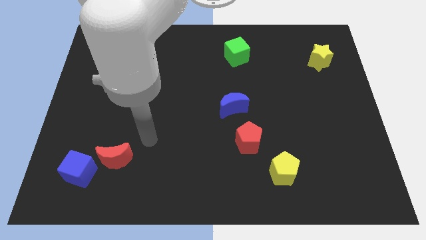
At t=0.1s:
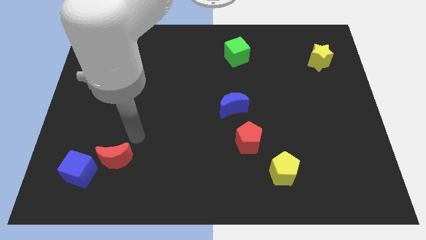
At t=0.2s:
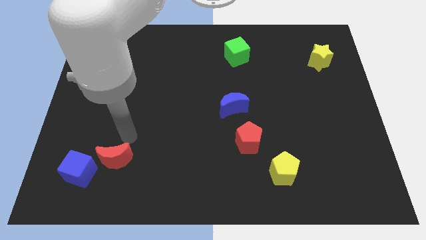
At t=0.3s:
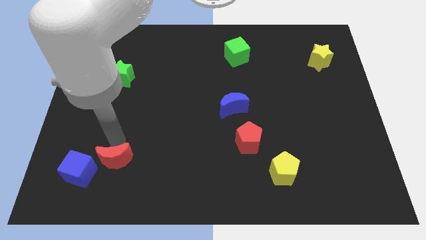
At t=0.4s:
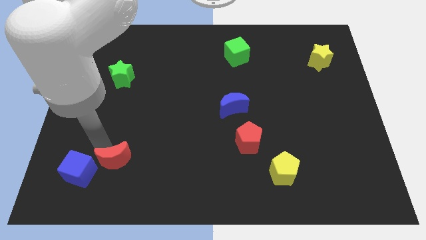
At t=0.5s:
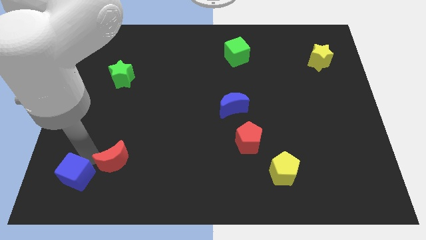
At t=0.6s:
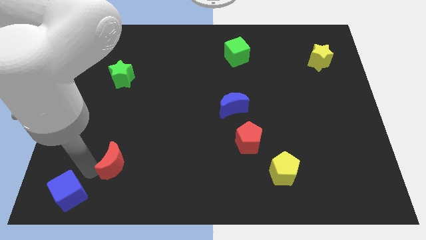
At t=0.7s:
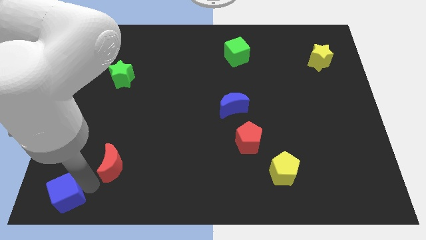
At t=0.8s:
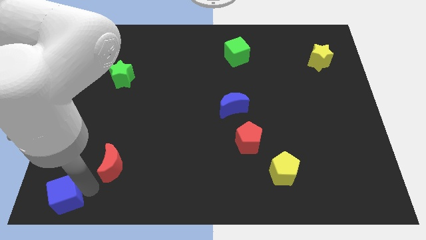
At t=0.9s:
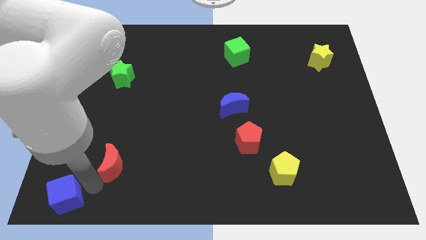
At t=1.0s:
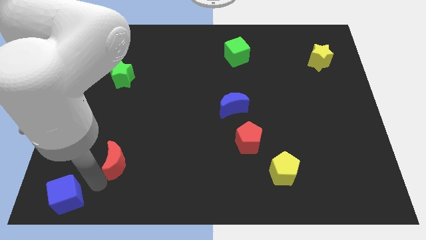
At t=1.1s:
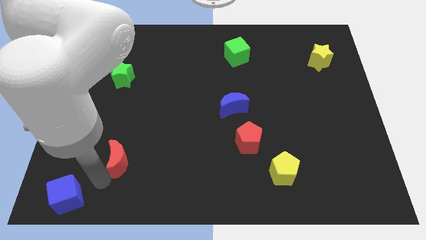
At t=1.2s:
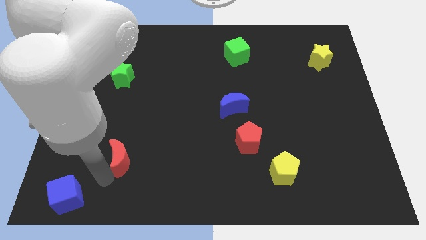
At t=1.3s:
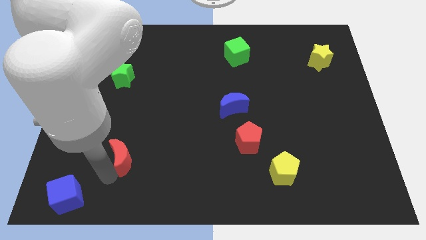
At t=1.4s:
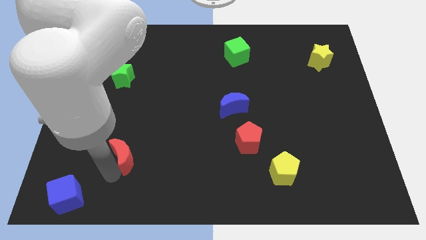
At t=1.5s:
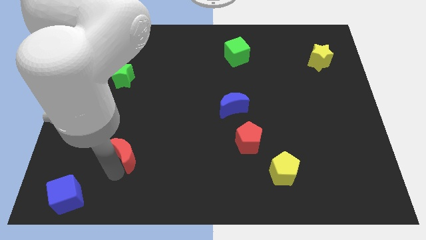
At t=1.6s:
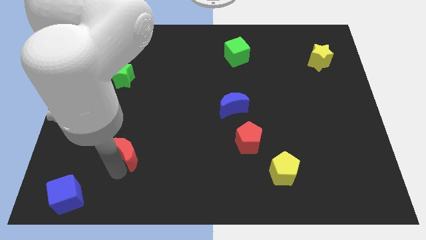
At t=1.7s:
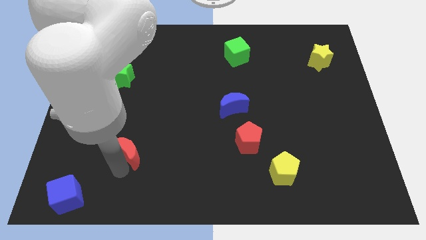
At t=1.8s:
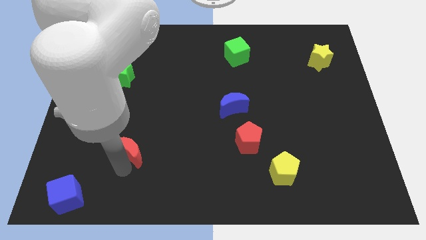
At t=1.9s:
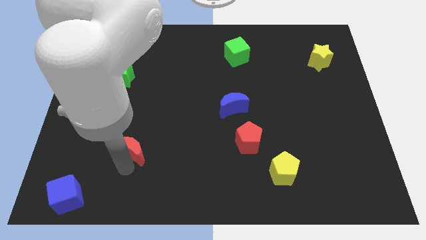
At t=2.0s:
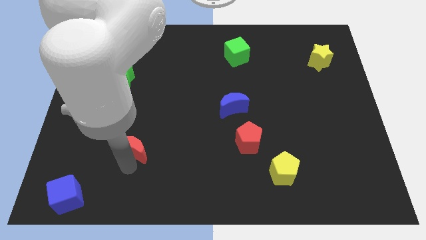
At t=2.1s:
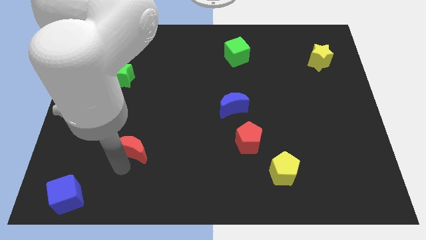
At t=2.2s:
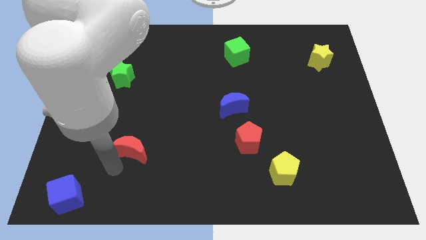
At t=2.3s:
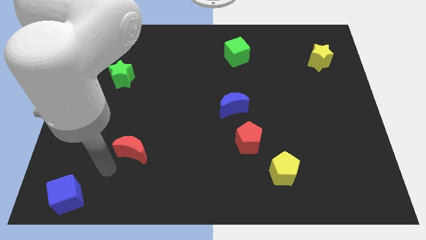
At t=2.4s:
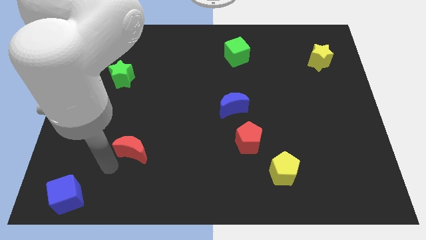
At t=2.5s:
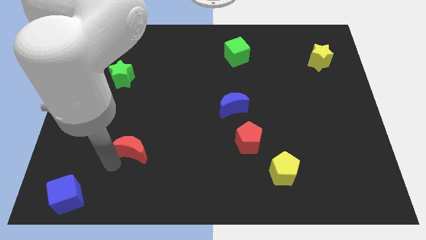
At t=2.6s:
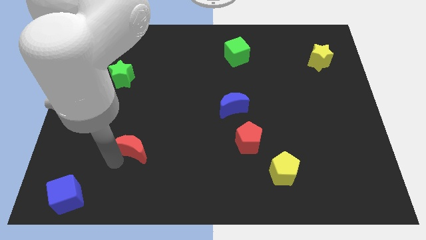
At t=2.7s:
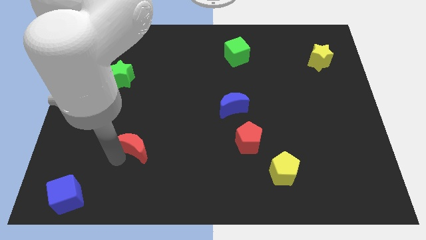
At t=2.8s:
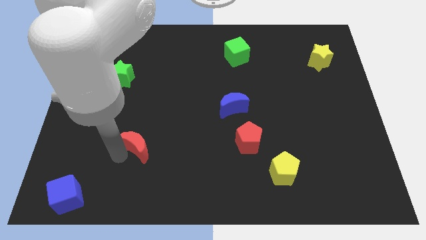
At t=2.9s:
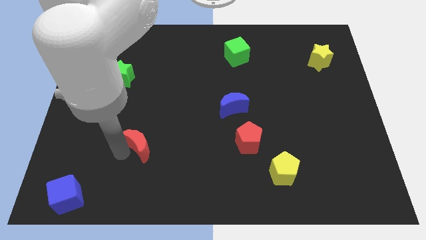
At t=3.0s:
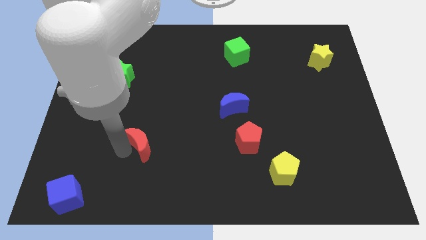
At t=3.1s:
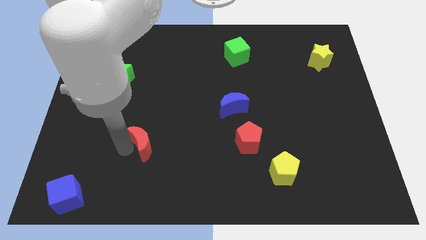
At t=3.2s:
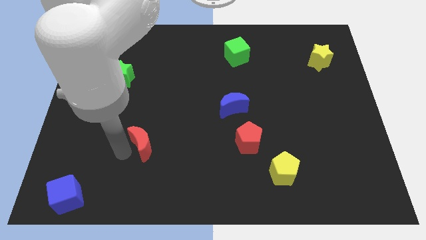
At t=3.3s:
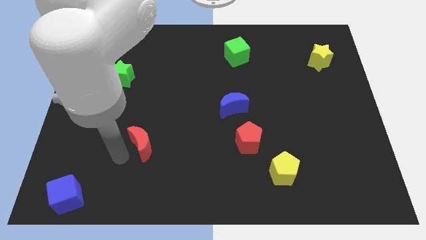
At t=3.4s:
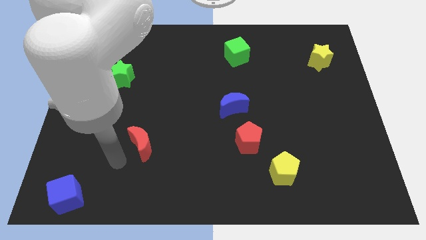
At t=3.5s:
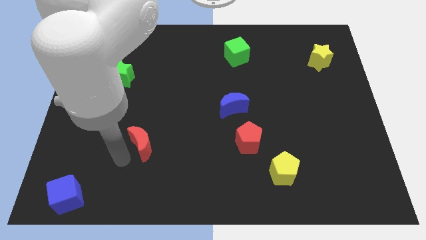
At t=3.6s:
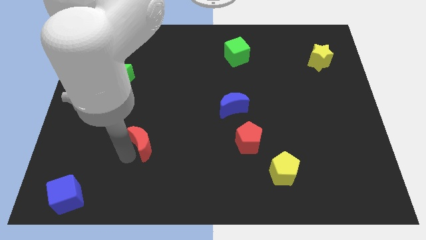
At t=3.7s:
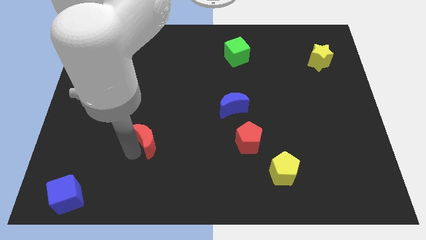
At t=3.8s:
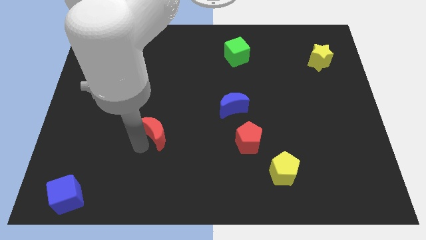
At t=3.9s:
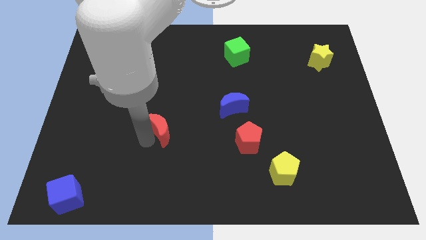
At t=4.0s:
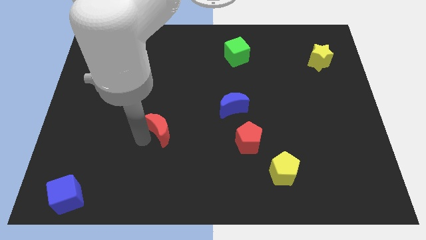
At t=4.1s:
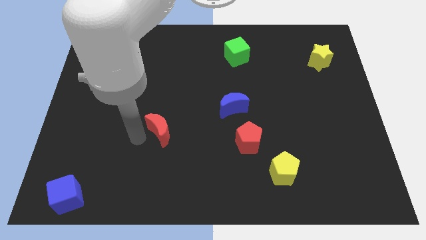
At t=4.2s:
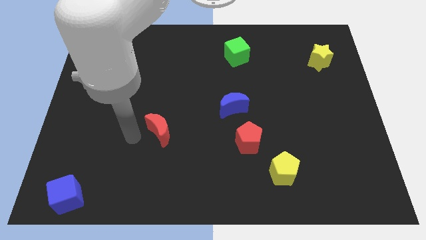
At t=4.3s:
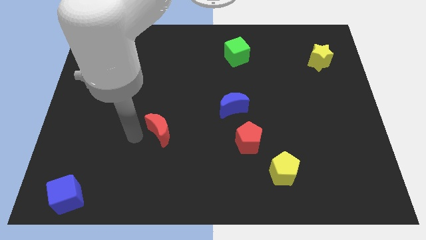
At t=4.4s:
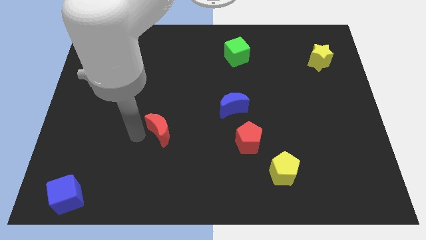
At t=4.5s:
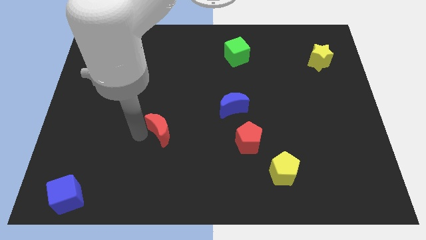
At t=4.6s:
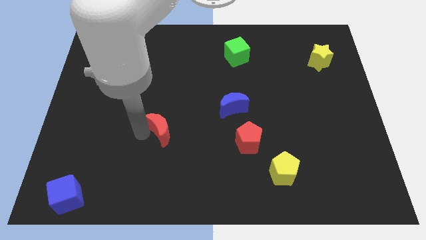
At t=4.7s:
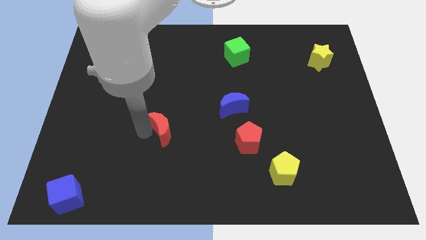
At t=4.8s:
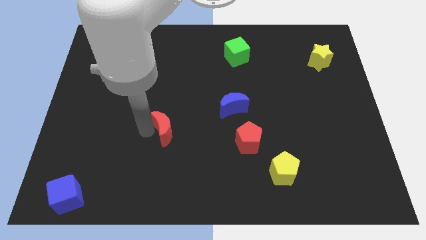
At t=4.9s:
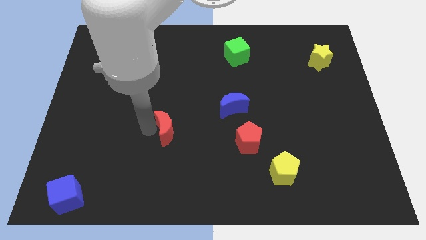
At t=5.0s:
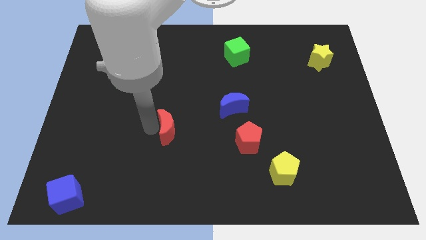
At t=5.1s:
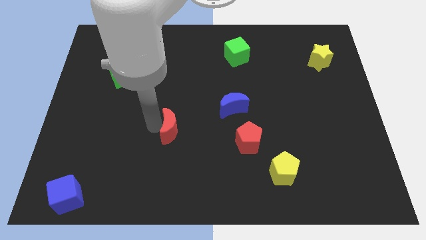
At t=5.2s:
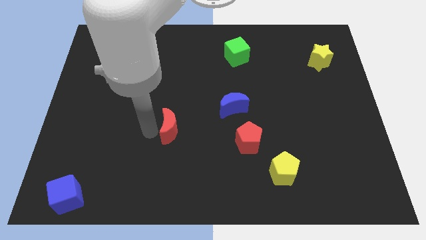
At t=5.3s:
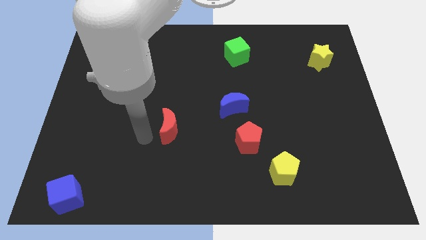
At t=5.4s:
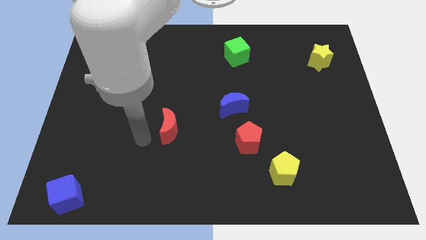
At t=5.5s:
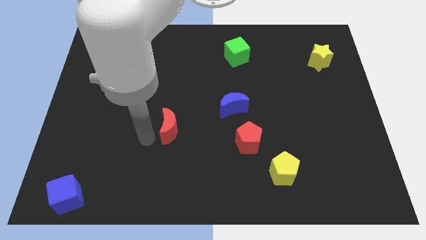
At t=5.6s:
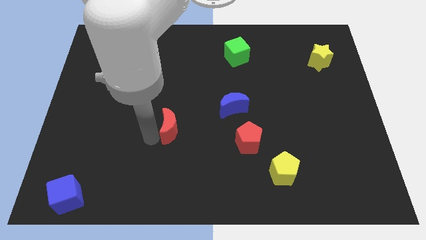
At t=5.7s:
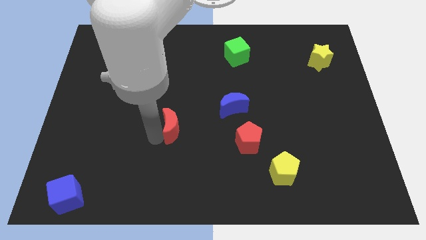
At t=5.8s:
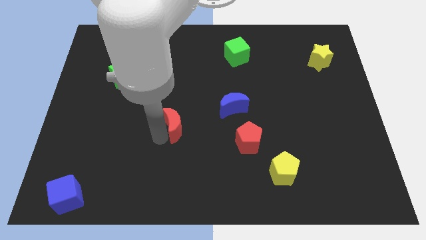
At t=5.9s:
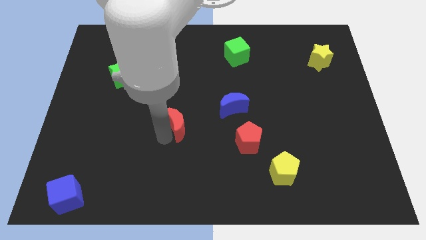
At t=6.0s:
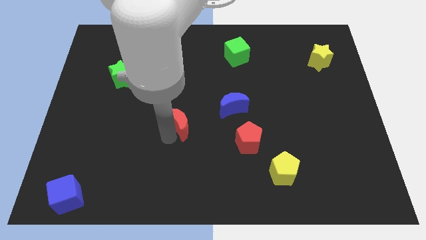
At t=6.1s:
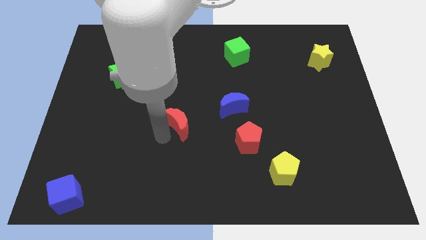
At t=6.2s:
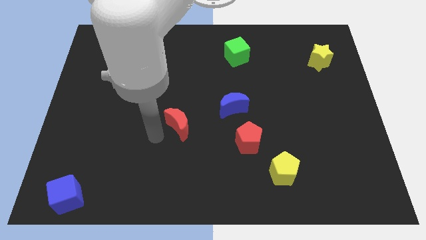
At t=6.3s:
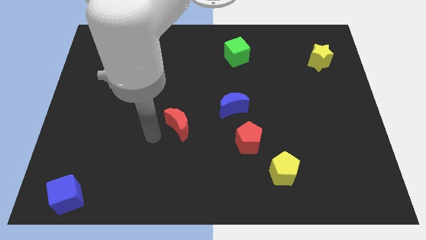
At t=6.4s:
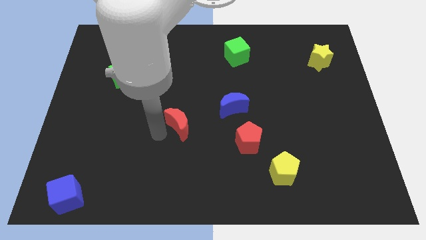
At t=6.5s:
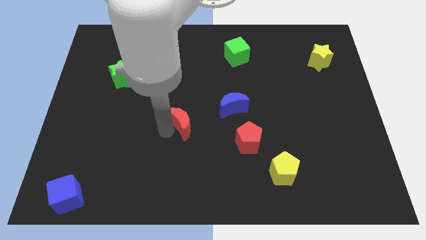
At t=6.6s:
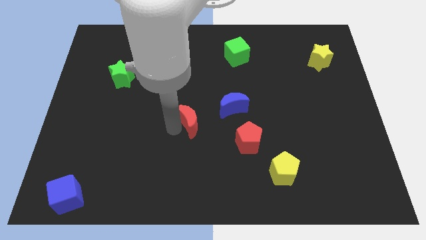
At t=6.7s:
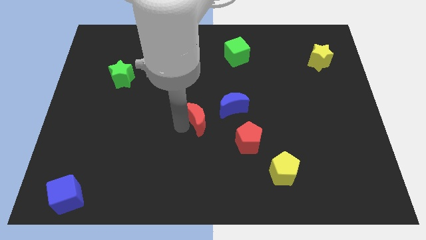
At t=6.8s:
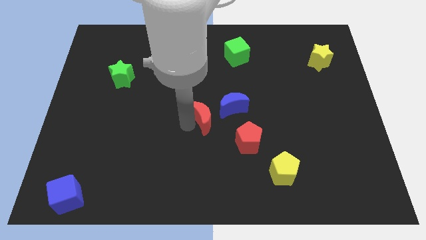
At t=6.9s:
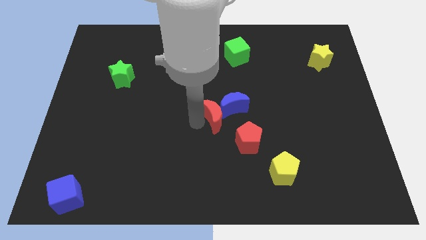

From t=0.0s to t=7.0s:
put the red moon towards the blue moon
